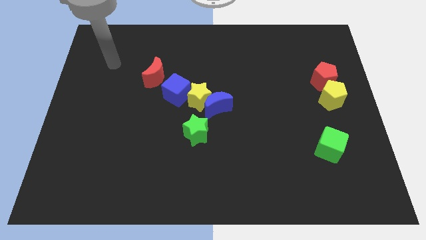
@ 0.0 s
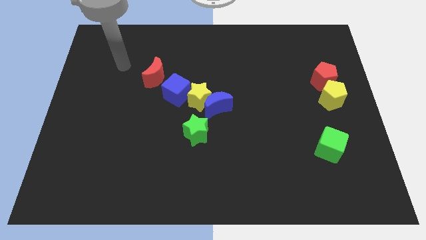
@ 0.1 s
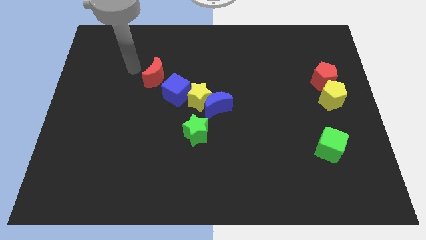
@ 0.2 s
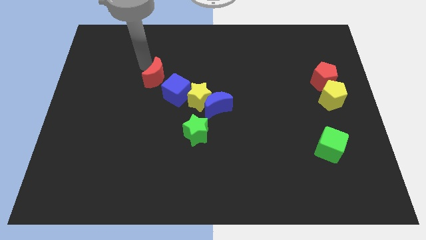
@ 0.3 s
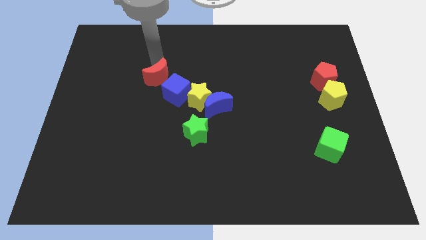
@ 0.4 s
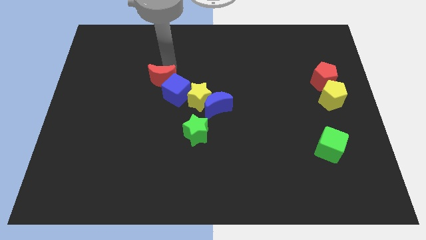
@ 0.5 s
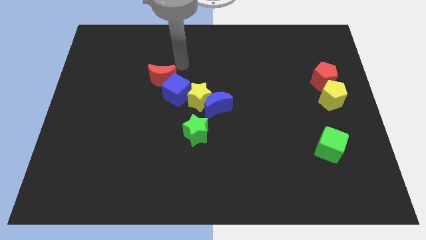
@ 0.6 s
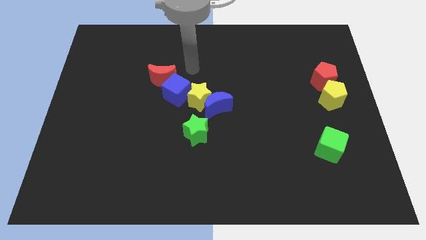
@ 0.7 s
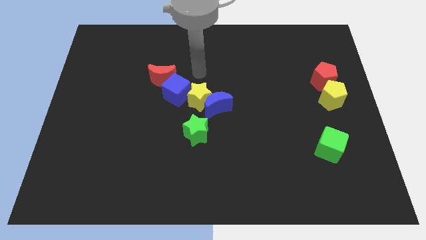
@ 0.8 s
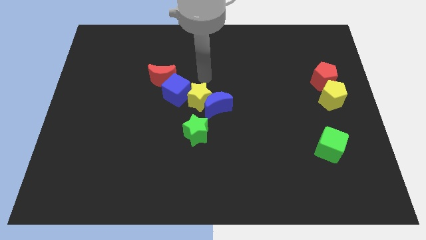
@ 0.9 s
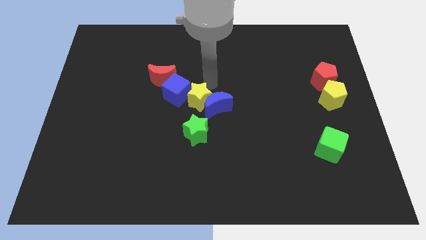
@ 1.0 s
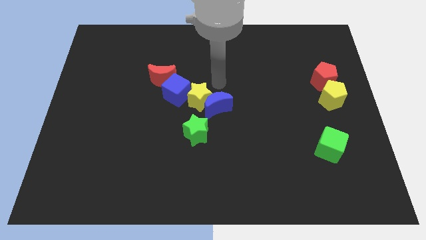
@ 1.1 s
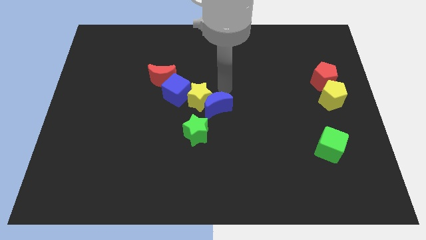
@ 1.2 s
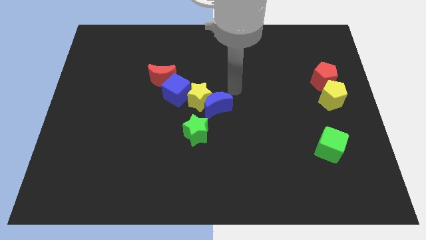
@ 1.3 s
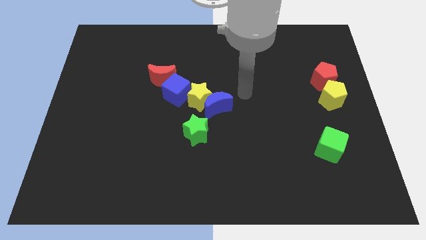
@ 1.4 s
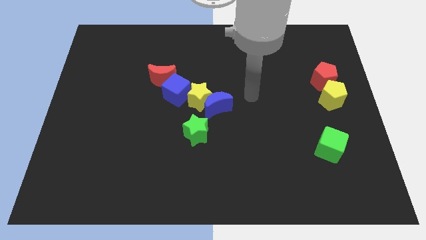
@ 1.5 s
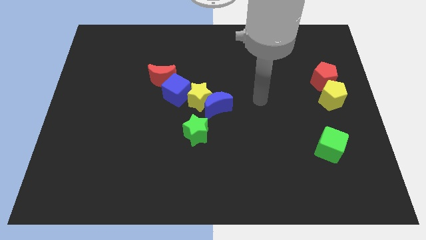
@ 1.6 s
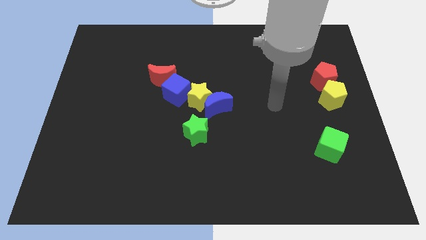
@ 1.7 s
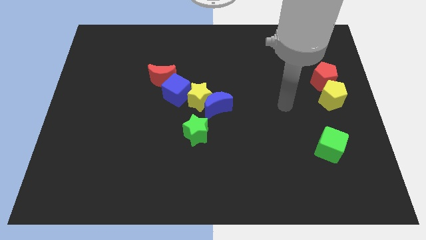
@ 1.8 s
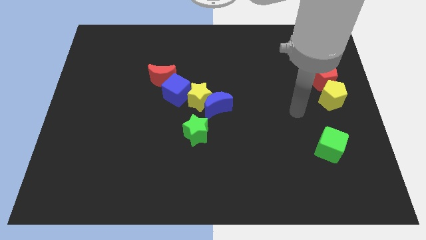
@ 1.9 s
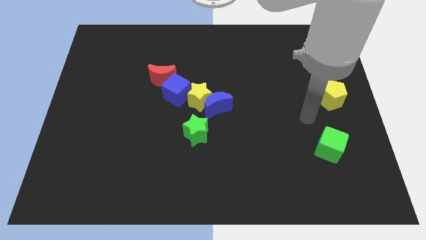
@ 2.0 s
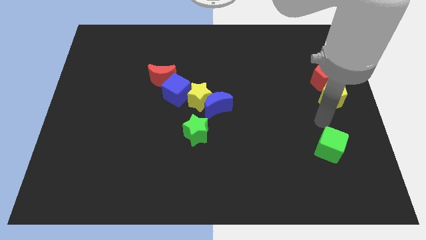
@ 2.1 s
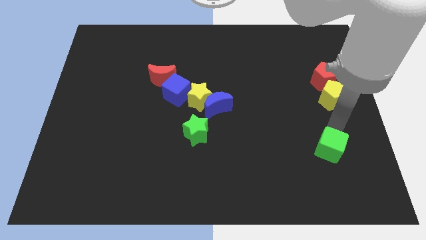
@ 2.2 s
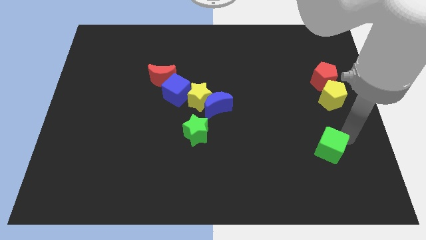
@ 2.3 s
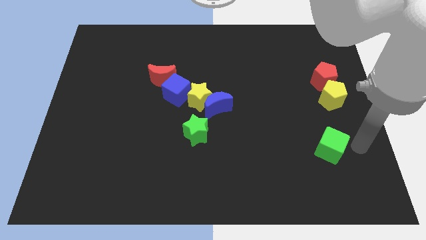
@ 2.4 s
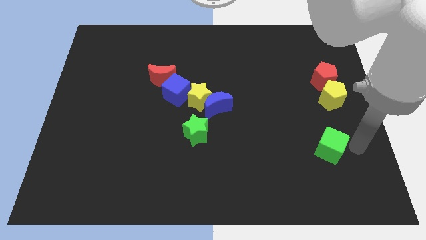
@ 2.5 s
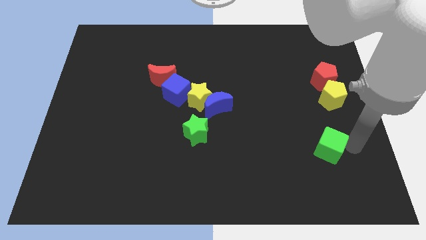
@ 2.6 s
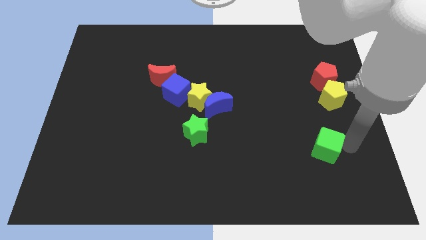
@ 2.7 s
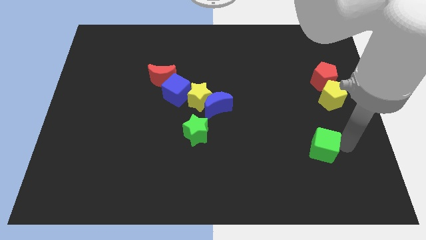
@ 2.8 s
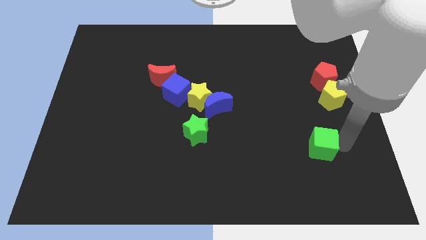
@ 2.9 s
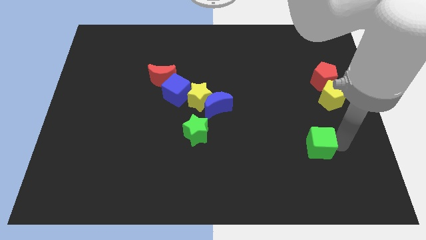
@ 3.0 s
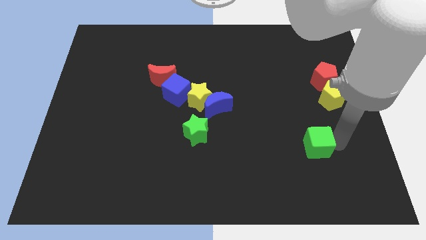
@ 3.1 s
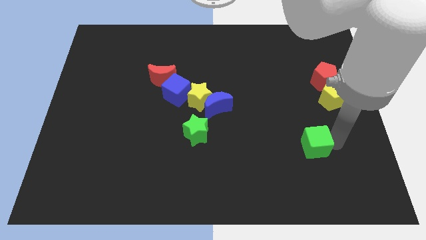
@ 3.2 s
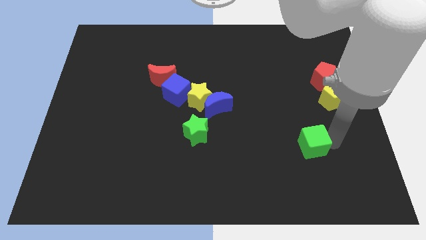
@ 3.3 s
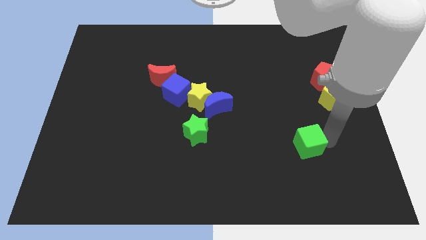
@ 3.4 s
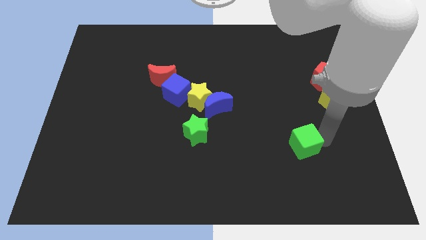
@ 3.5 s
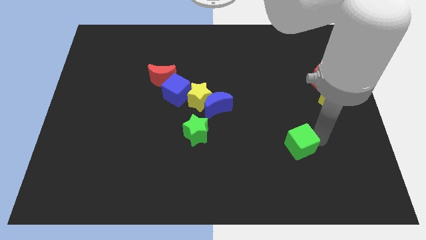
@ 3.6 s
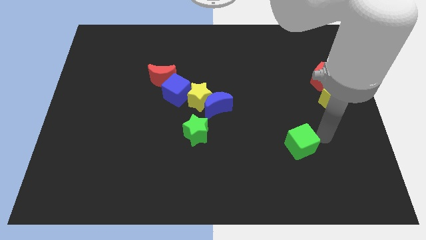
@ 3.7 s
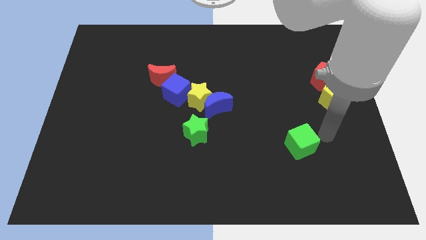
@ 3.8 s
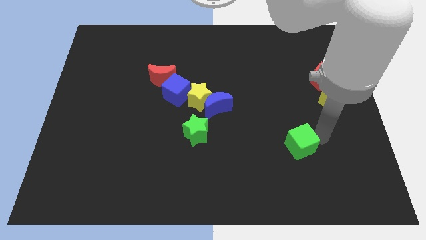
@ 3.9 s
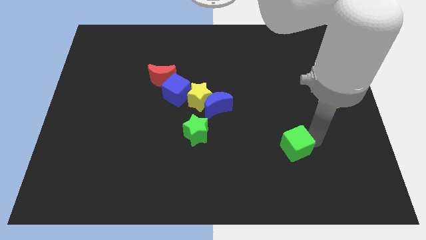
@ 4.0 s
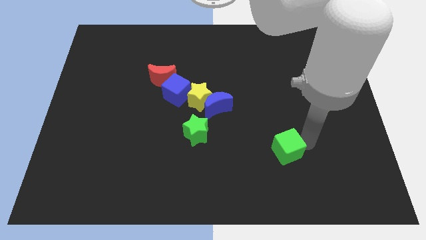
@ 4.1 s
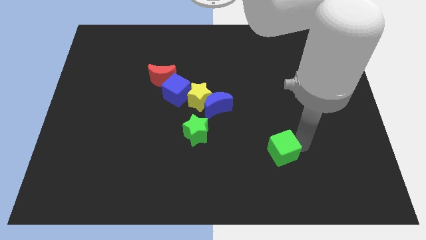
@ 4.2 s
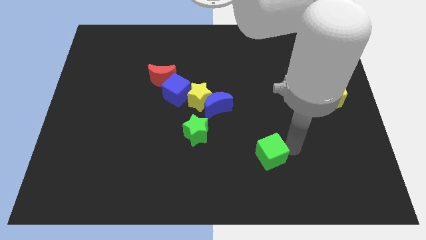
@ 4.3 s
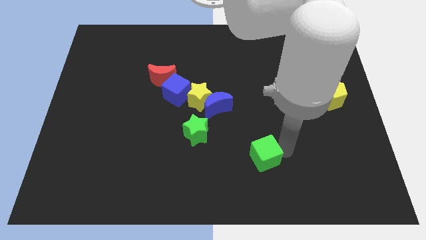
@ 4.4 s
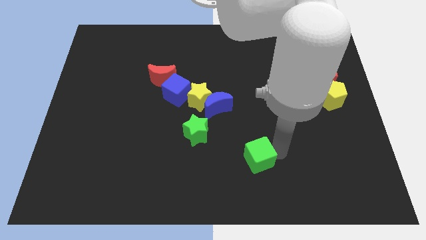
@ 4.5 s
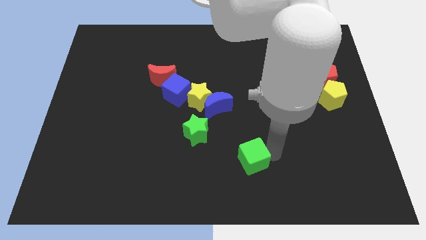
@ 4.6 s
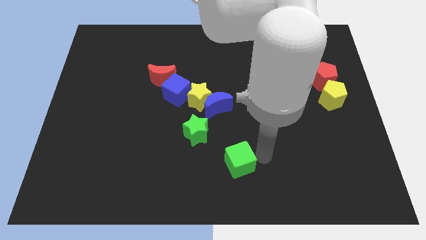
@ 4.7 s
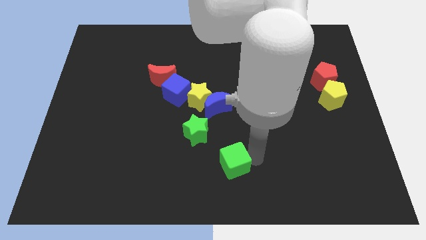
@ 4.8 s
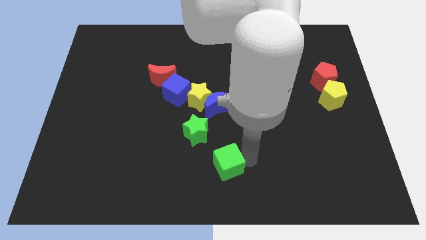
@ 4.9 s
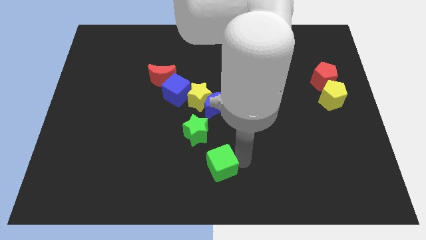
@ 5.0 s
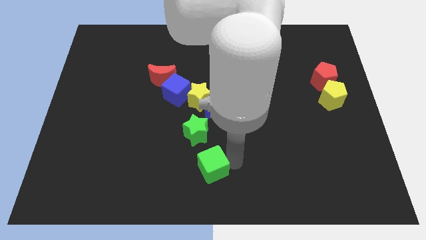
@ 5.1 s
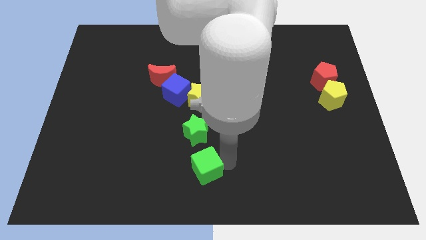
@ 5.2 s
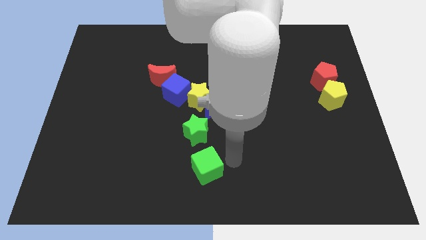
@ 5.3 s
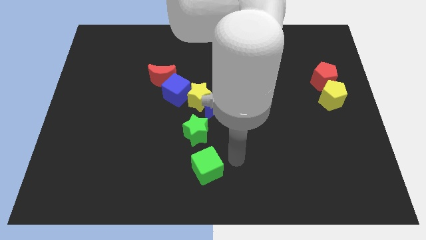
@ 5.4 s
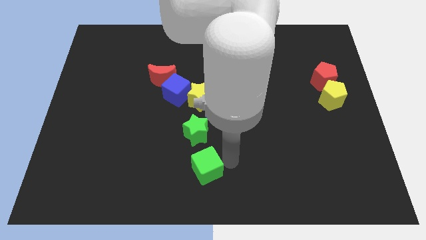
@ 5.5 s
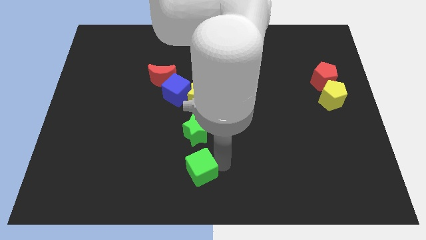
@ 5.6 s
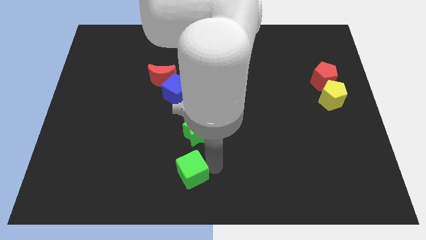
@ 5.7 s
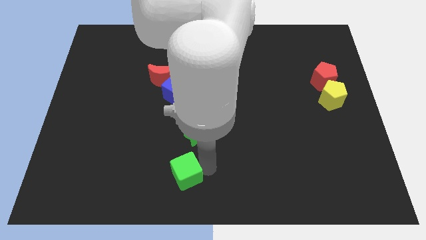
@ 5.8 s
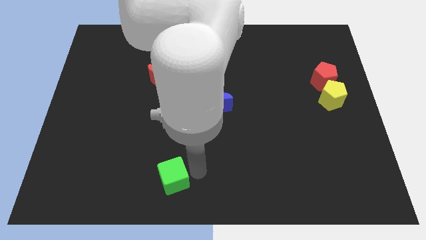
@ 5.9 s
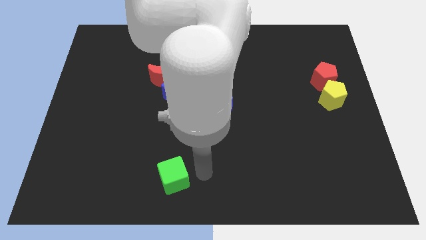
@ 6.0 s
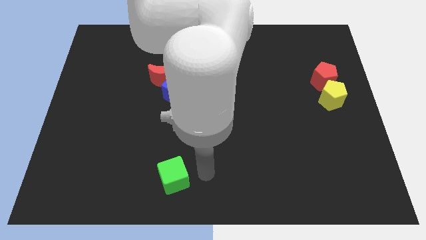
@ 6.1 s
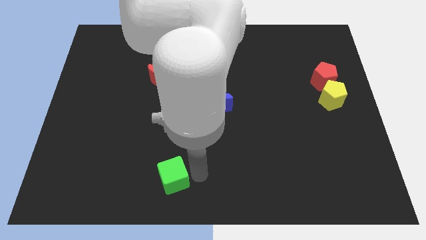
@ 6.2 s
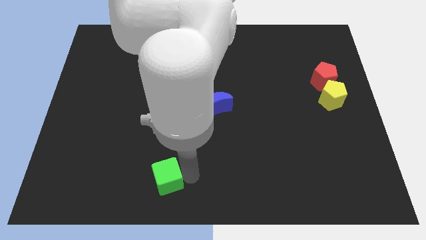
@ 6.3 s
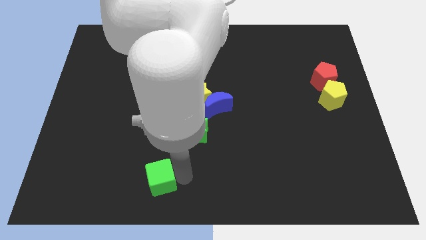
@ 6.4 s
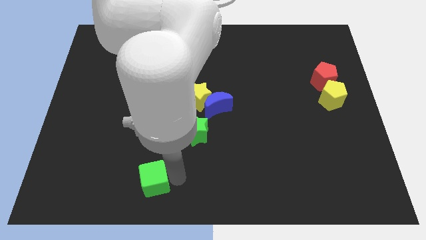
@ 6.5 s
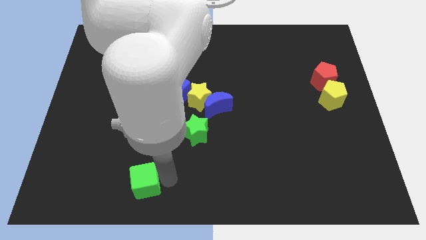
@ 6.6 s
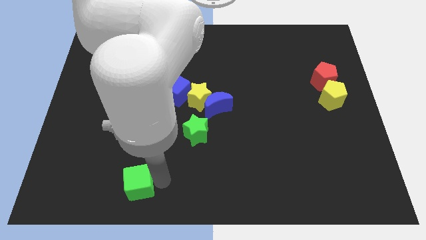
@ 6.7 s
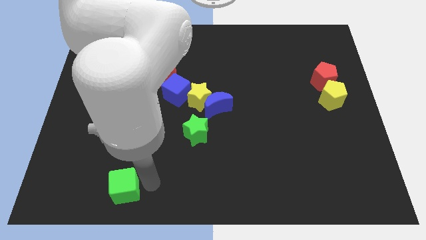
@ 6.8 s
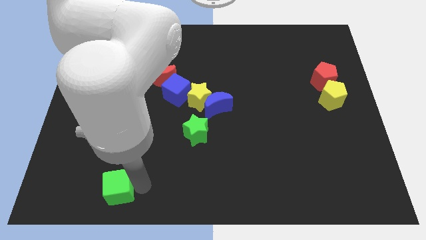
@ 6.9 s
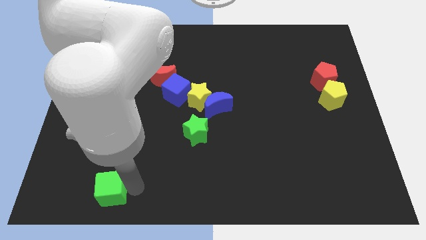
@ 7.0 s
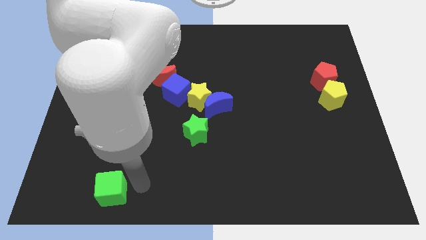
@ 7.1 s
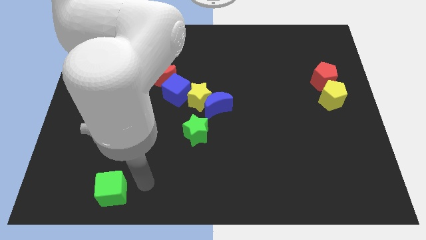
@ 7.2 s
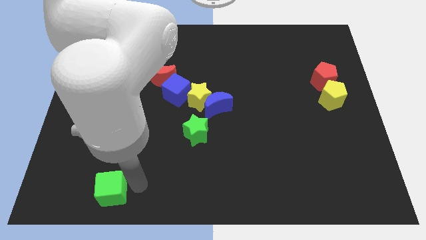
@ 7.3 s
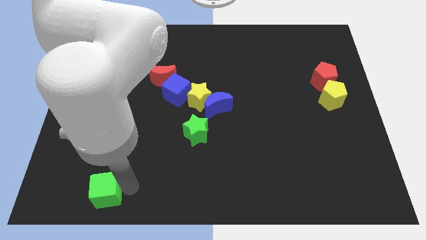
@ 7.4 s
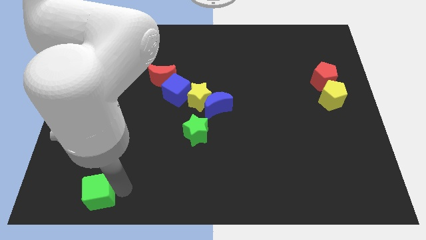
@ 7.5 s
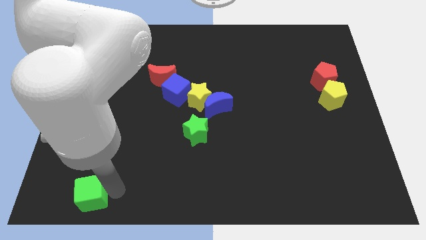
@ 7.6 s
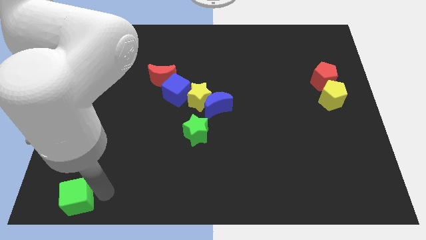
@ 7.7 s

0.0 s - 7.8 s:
push the green cube to the lower left corner
